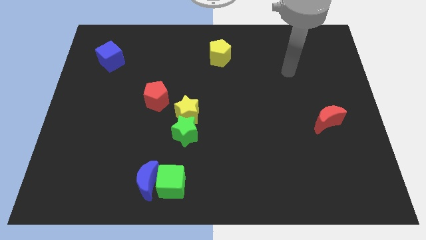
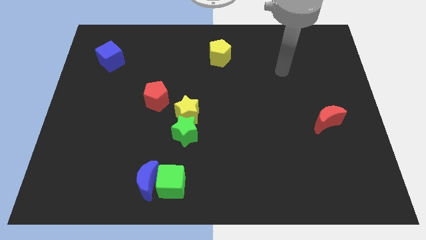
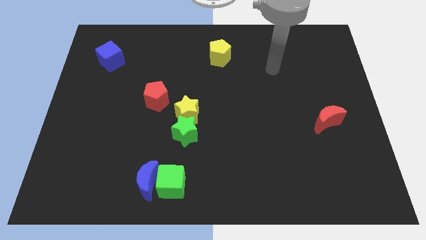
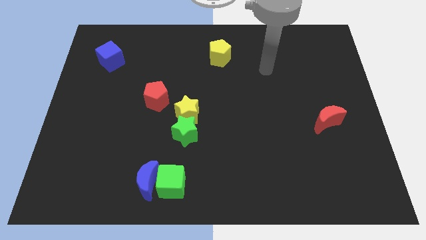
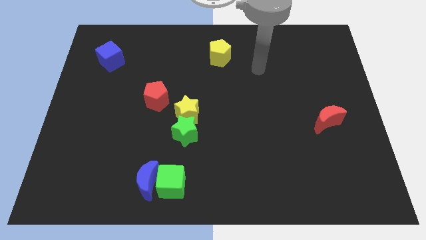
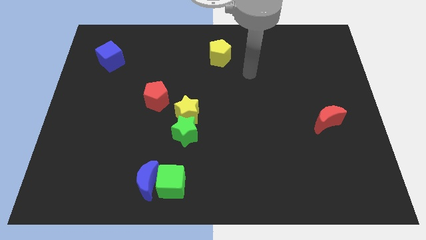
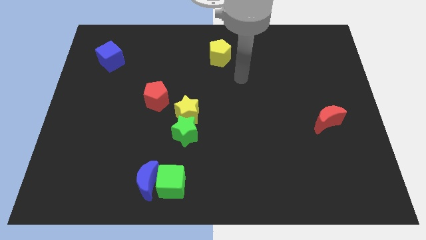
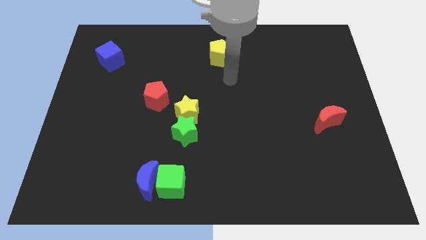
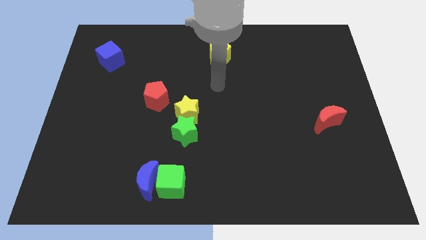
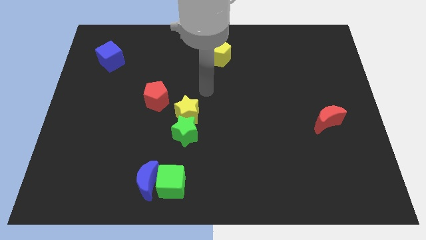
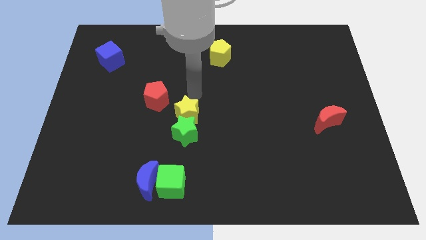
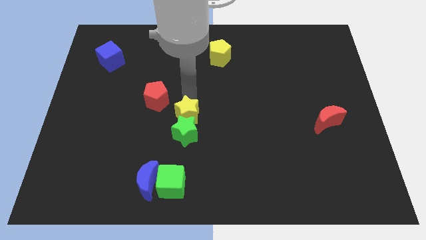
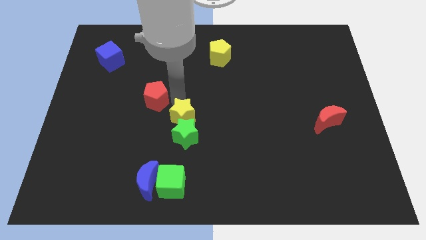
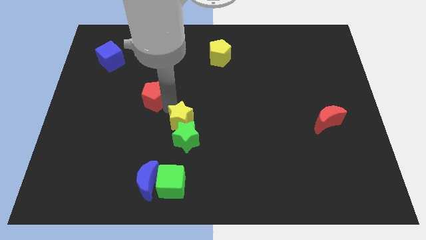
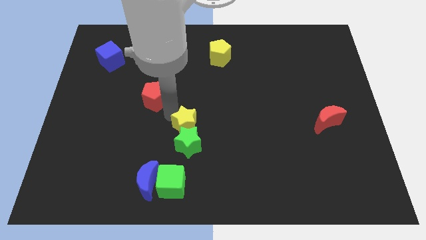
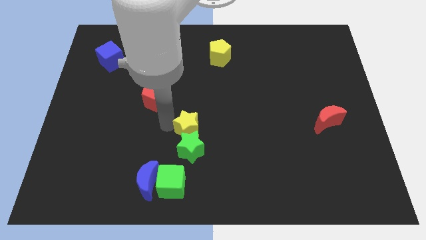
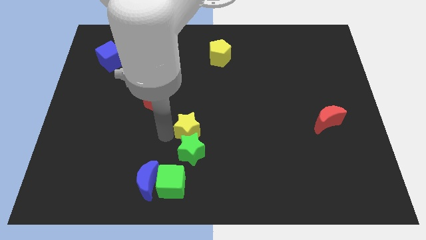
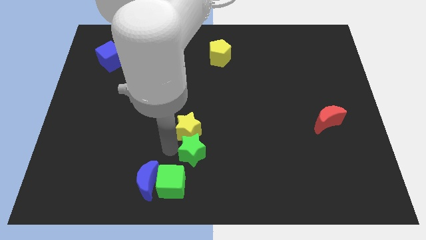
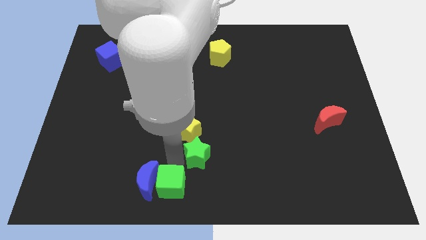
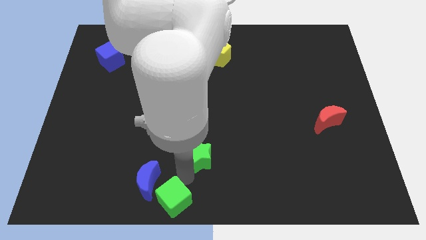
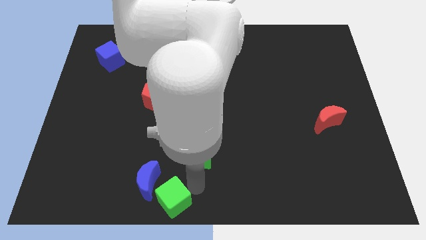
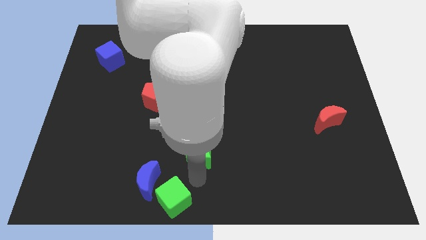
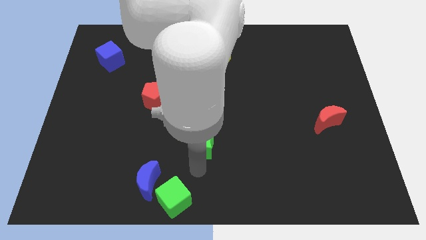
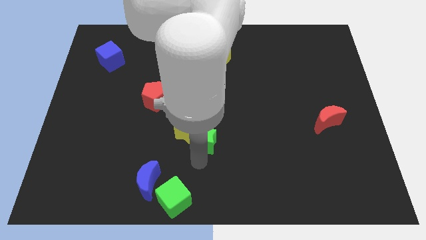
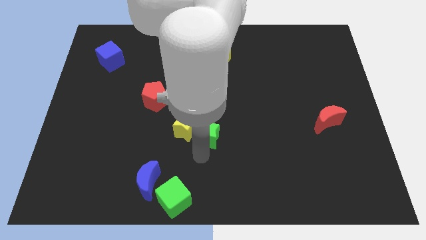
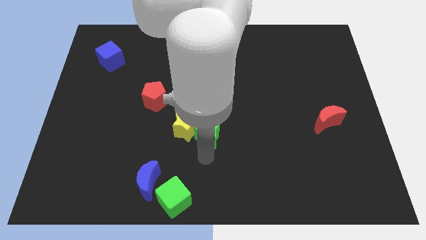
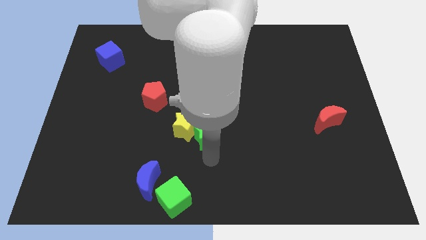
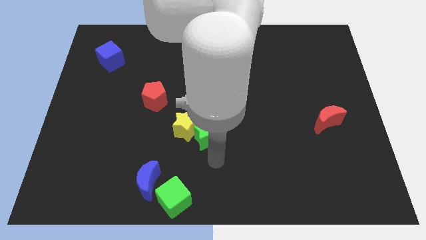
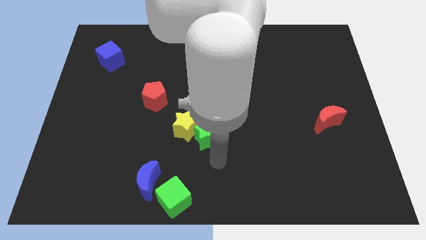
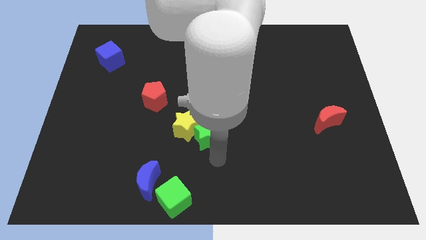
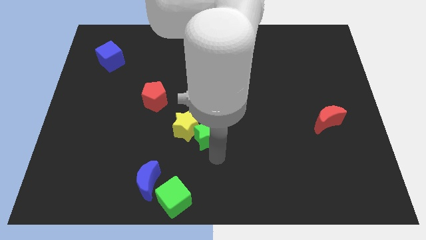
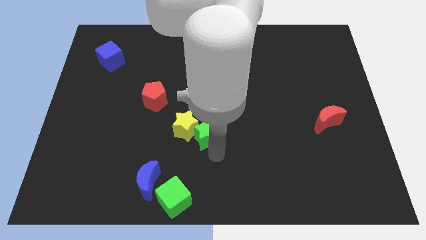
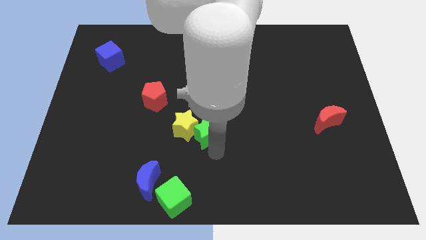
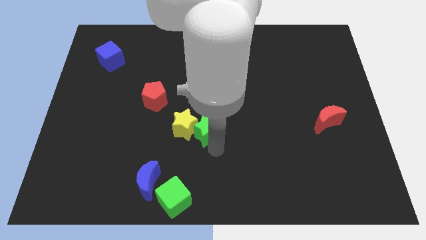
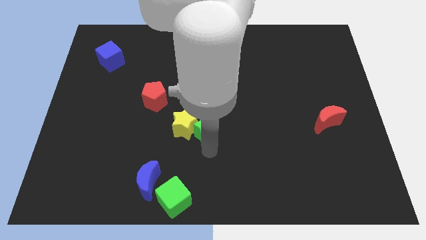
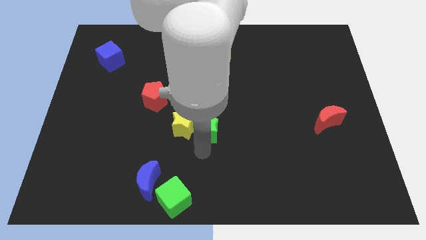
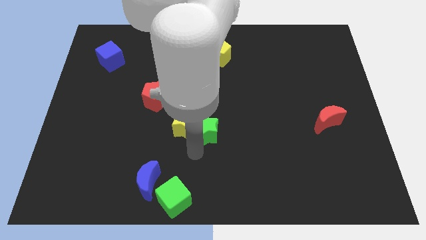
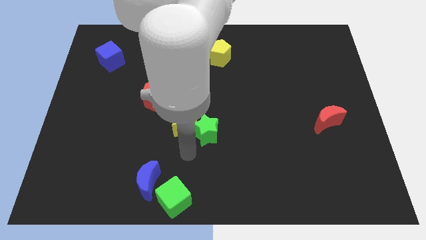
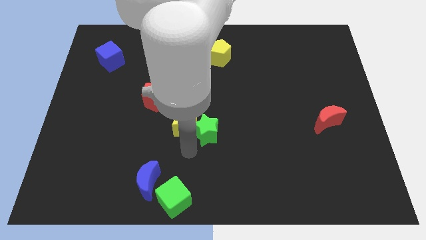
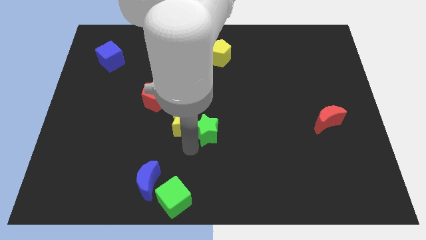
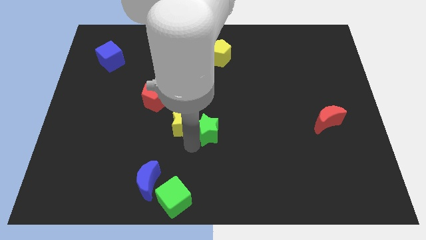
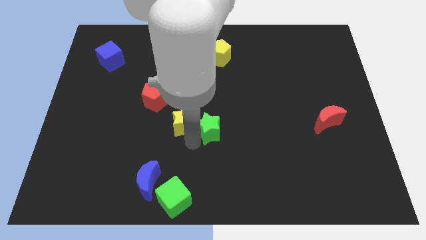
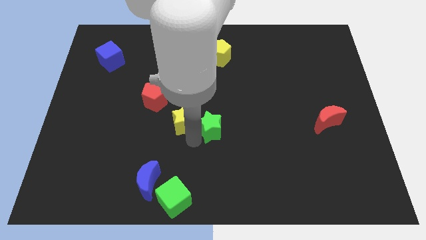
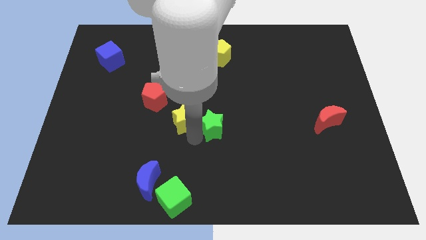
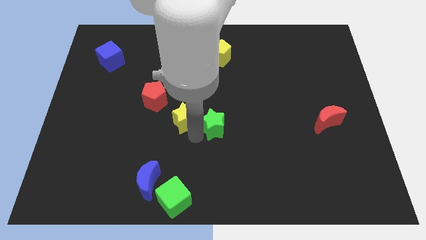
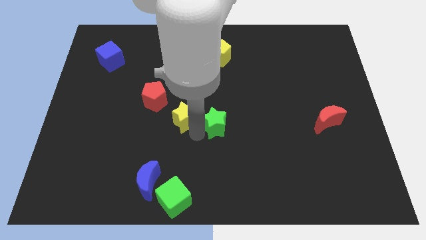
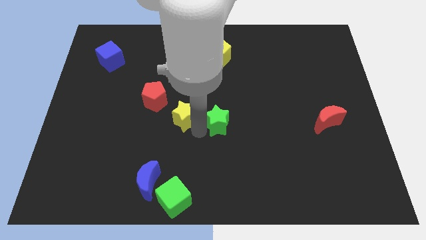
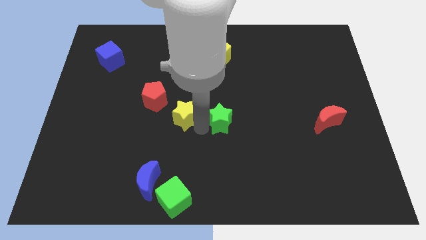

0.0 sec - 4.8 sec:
slightly move the green star diagonally up and right

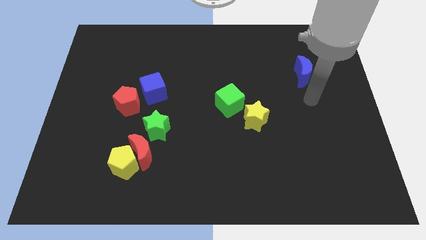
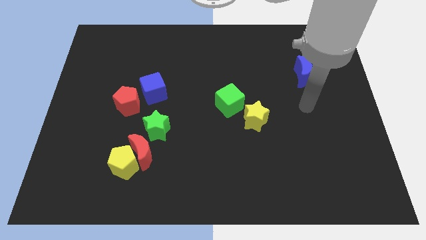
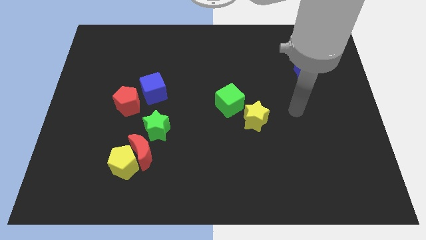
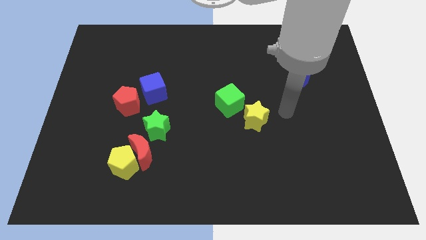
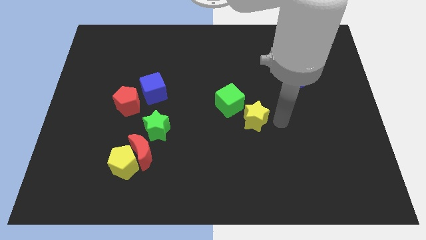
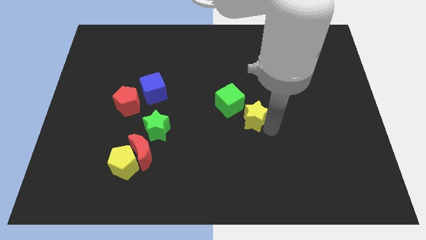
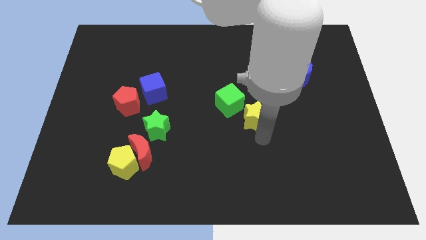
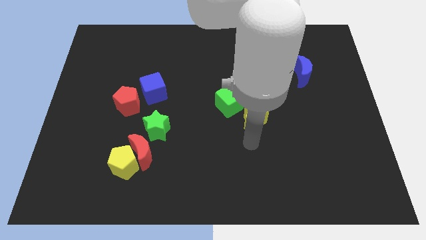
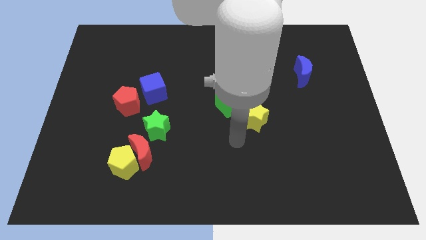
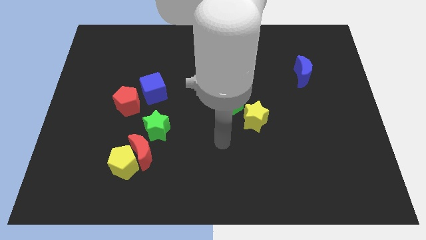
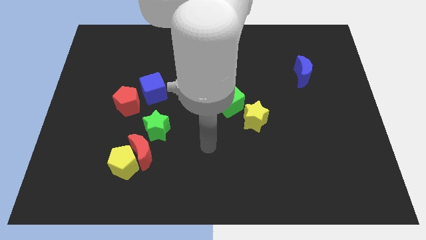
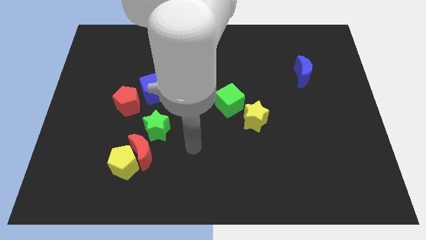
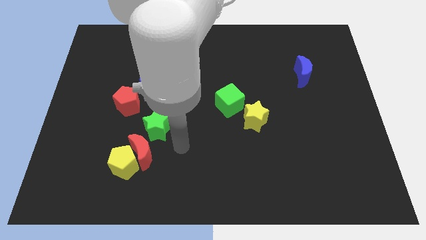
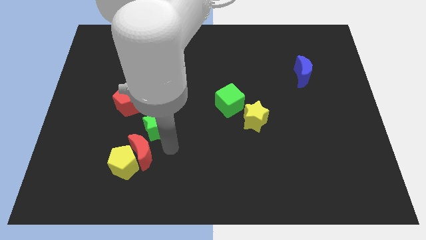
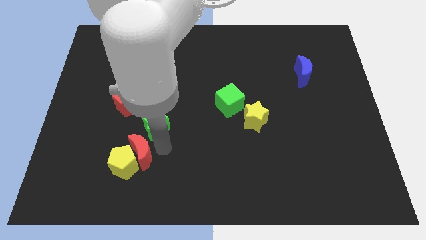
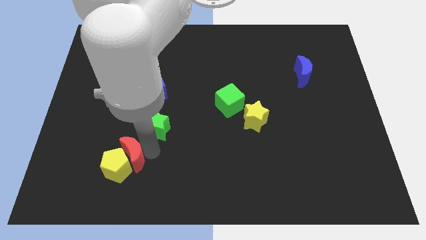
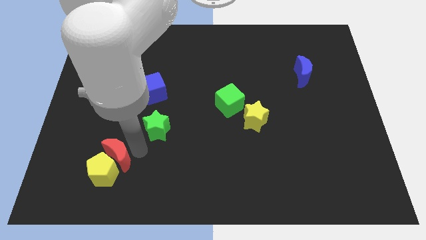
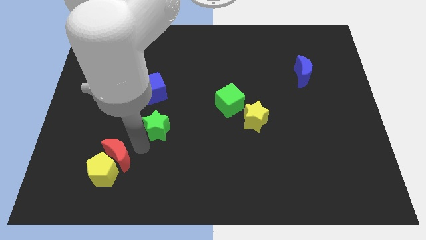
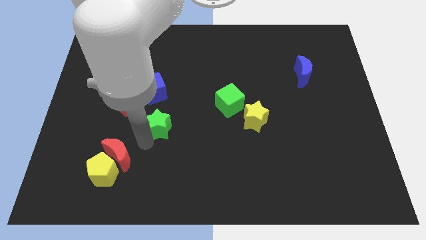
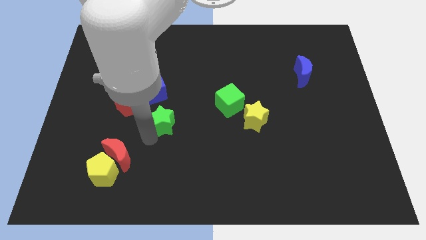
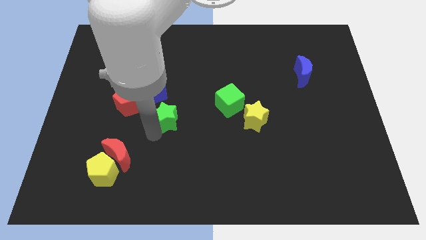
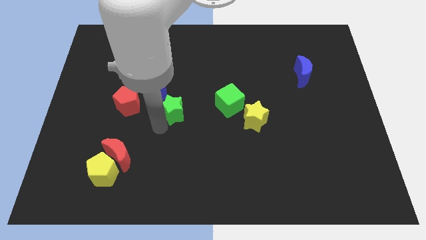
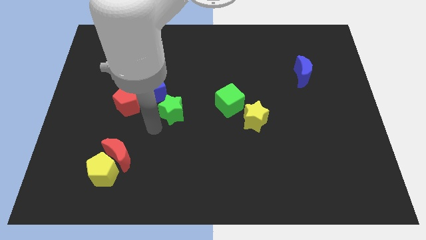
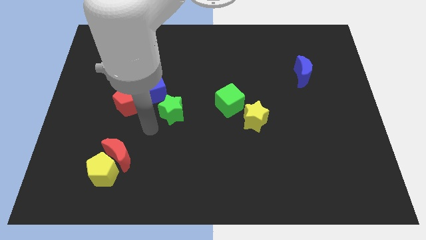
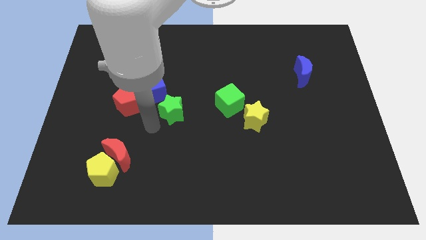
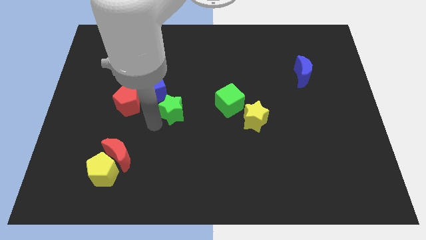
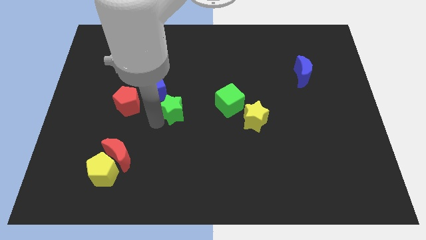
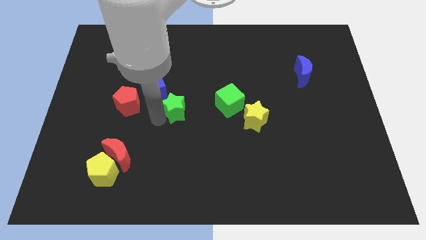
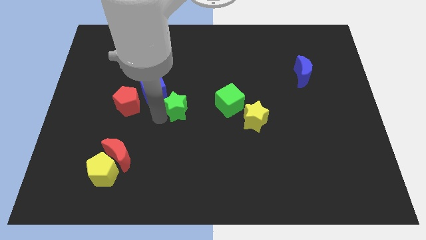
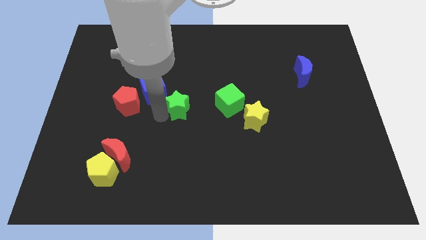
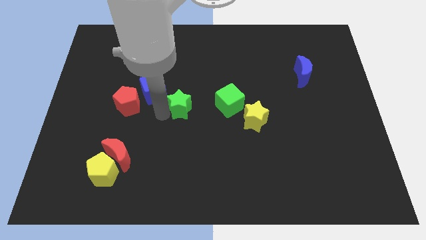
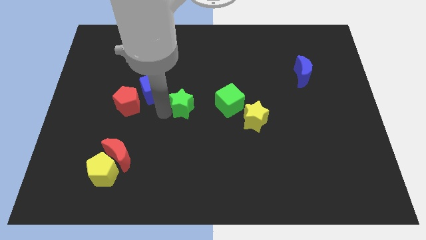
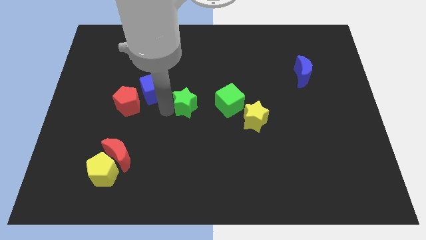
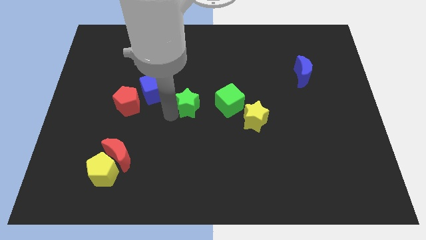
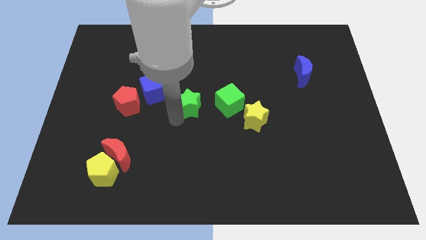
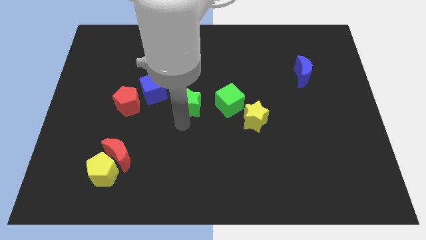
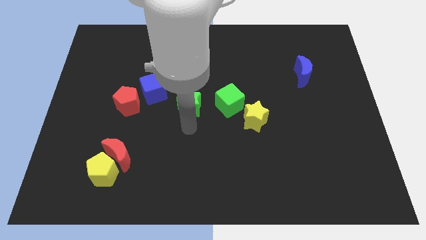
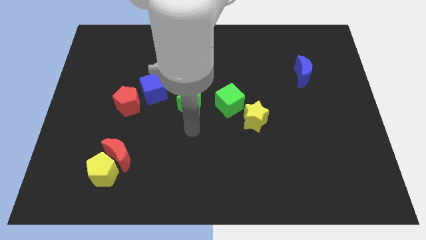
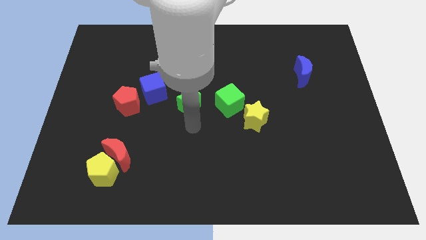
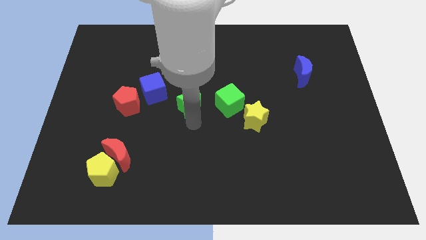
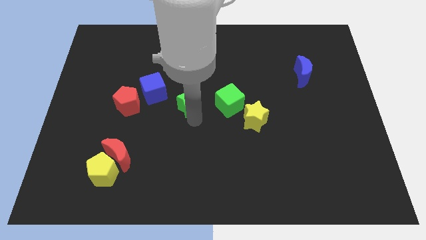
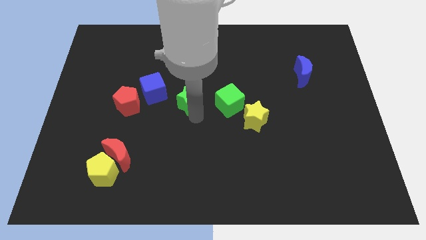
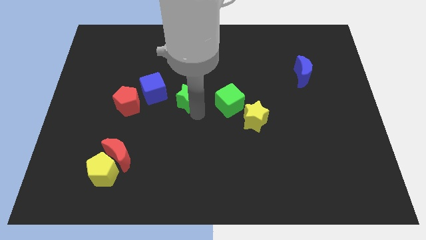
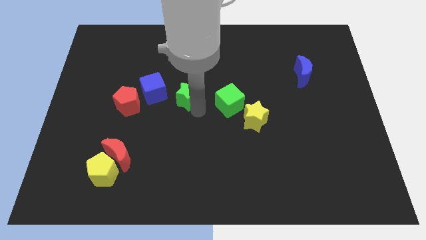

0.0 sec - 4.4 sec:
slide the green star upwards a bit
